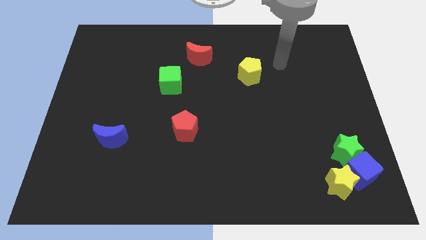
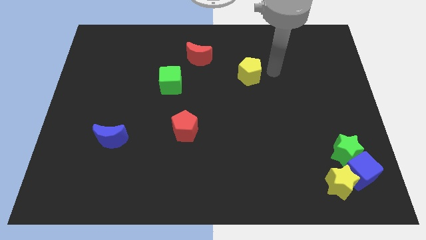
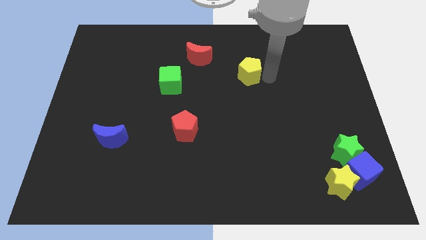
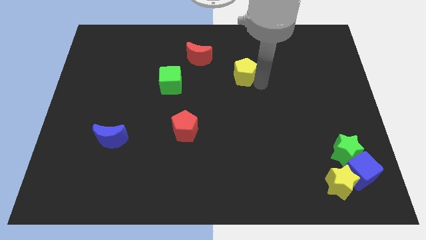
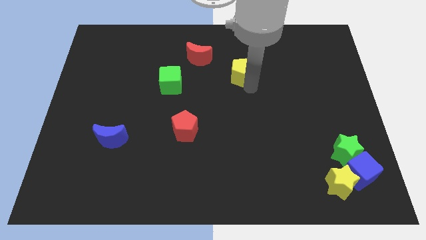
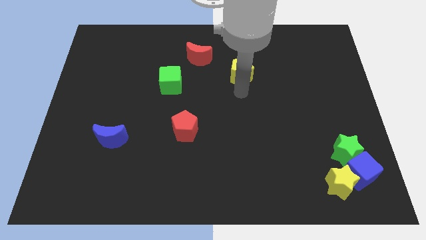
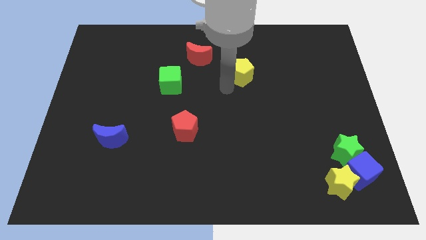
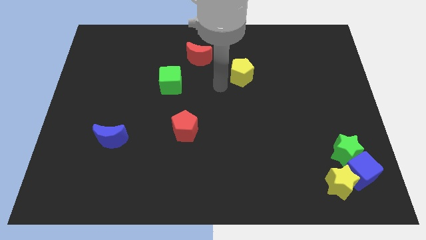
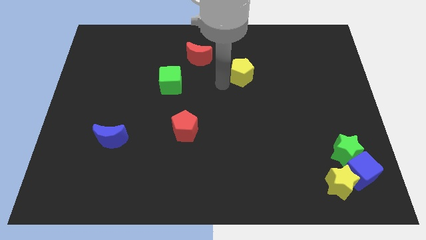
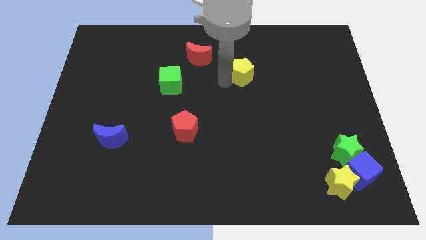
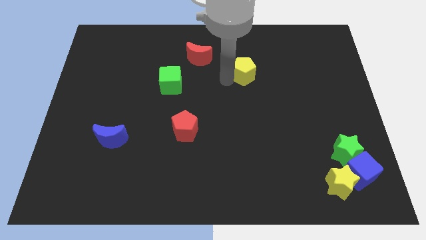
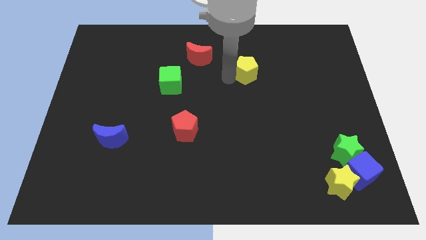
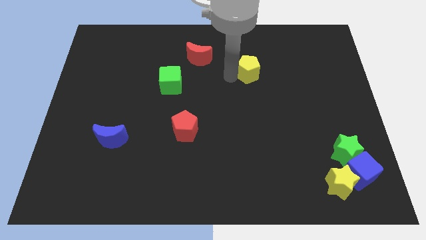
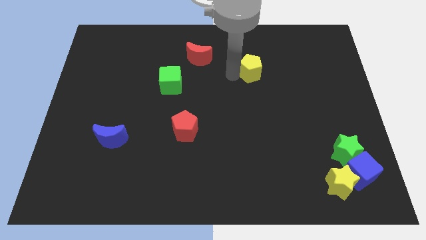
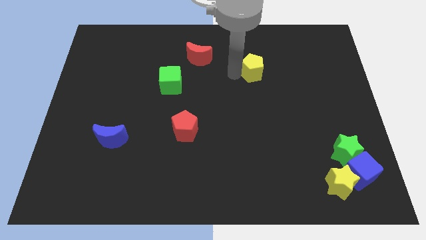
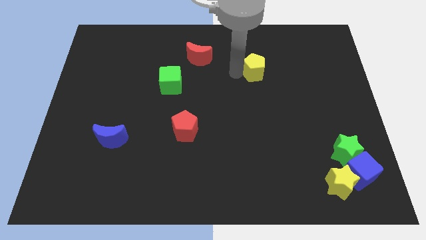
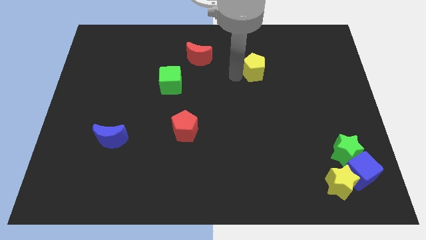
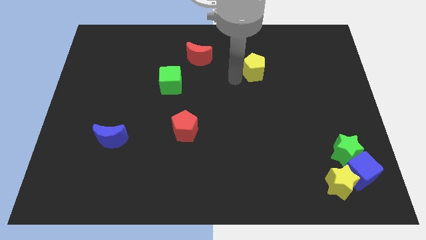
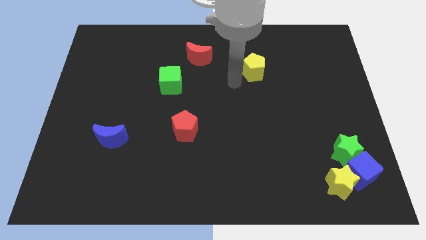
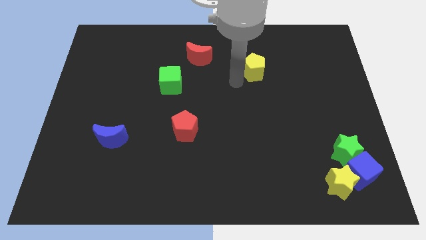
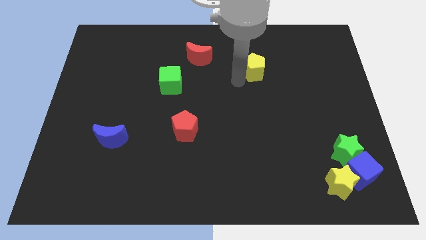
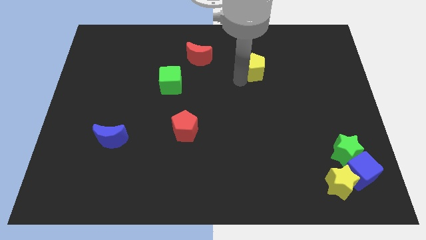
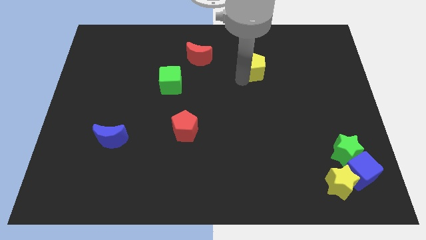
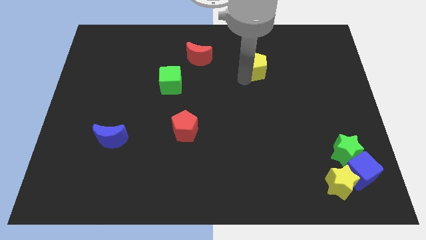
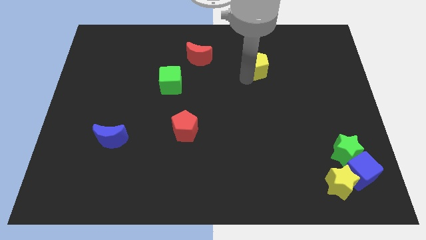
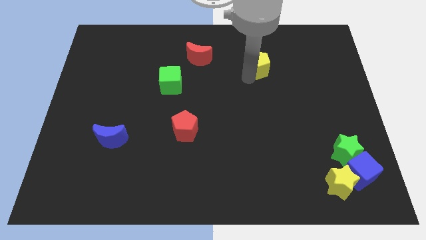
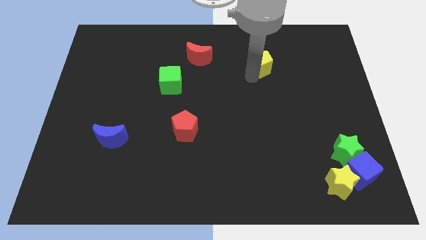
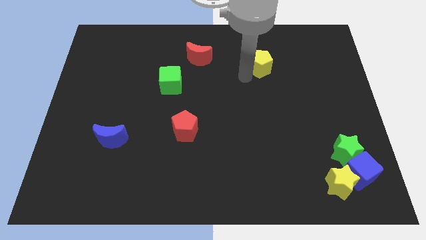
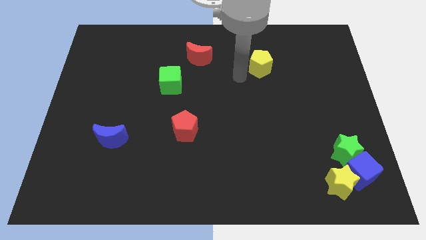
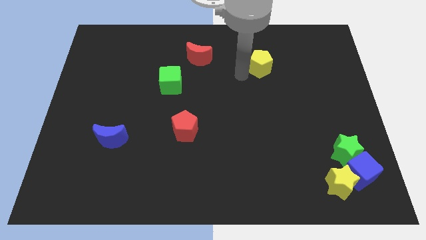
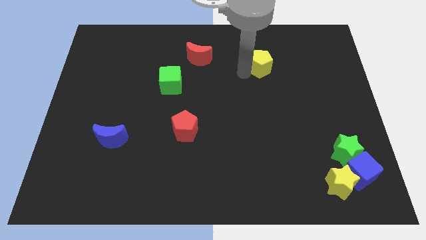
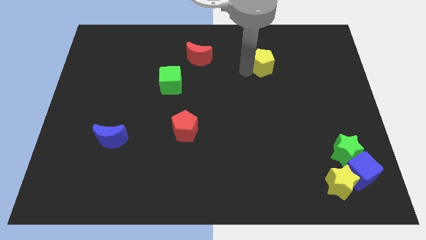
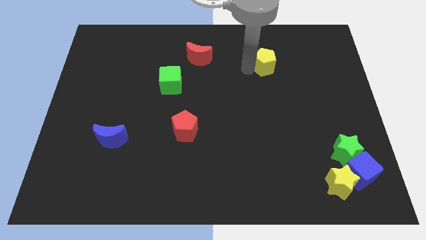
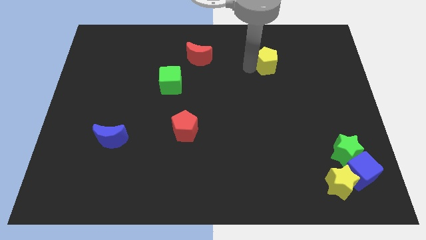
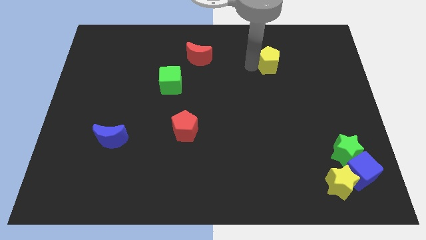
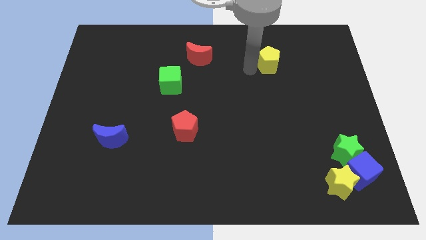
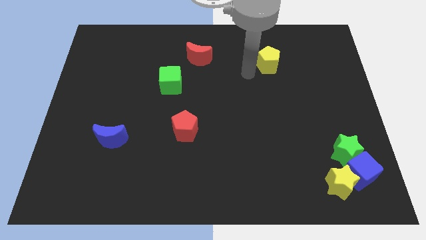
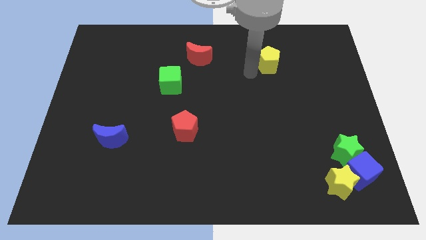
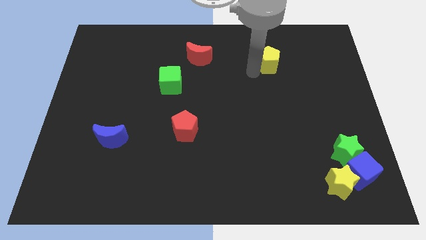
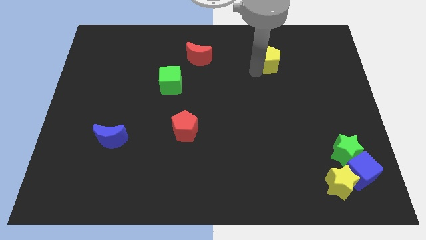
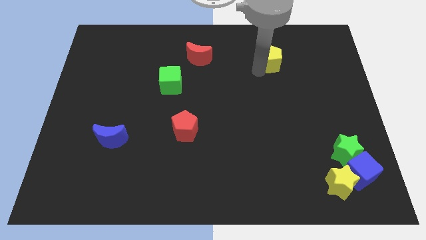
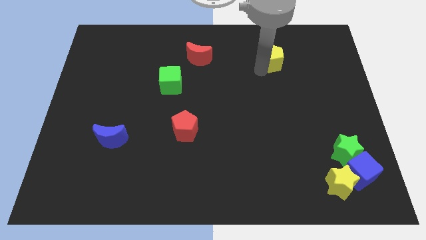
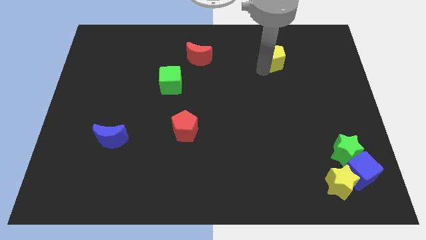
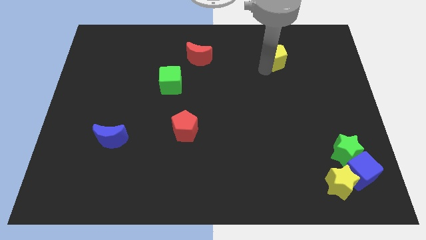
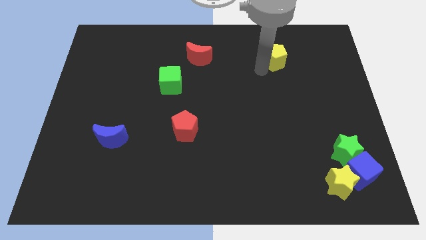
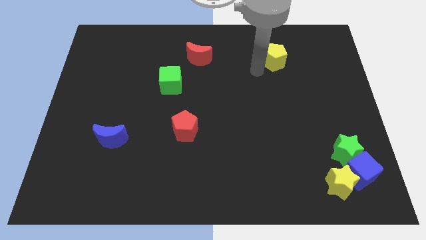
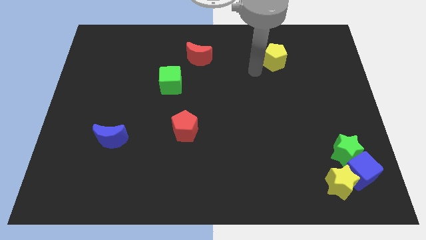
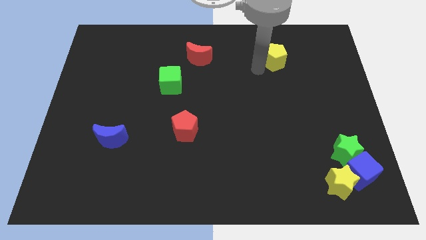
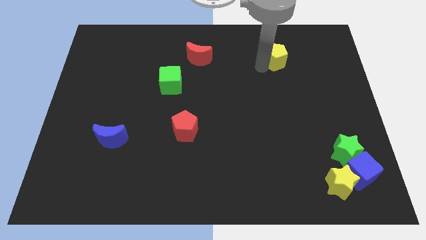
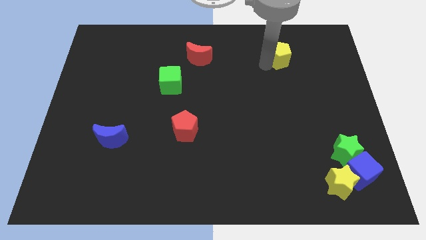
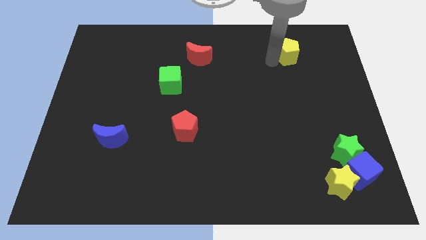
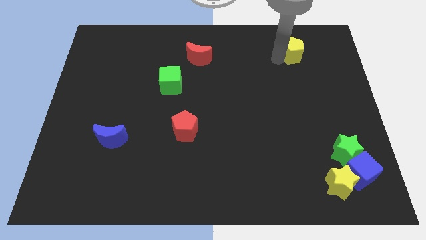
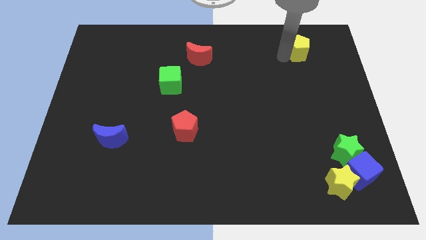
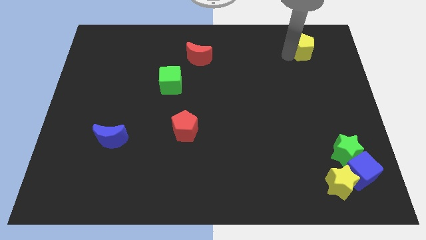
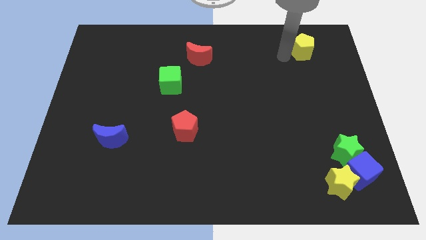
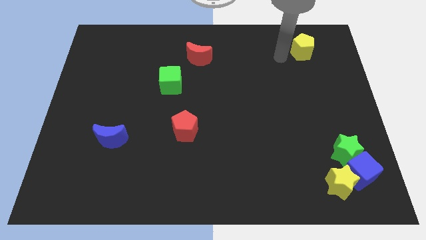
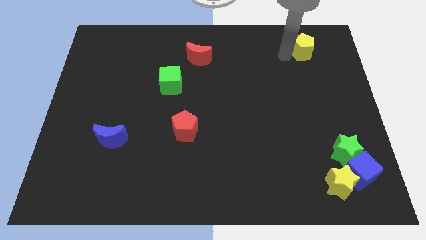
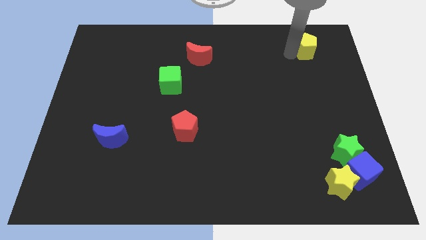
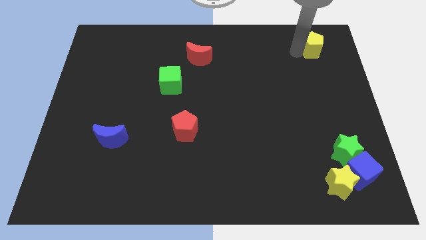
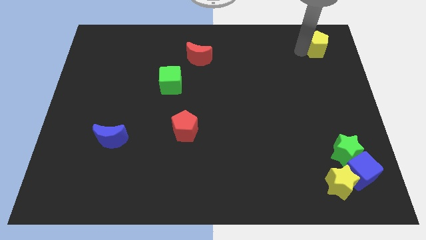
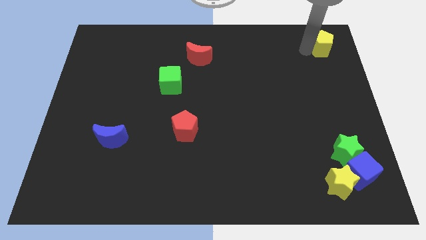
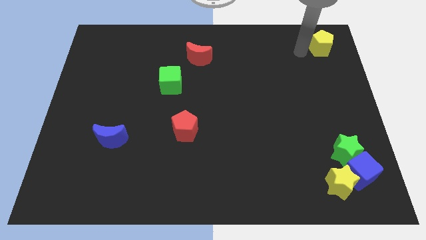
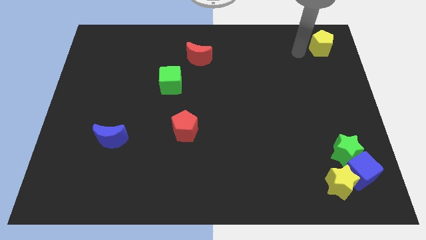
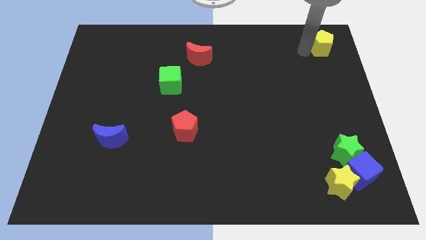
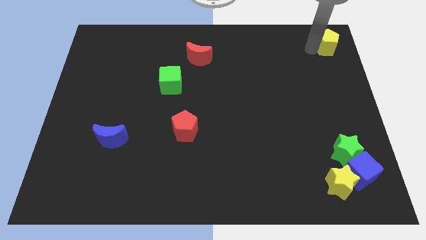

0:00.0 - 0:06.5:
push the yellow pentagon to the top right corner
